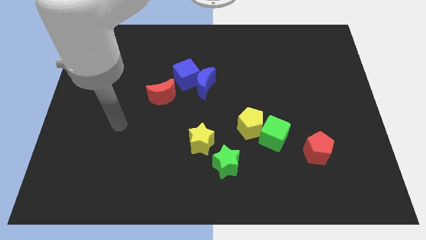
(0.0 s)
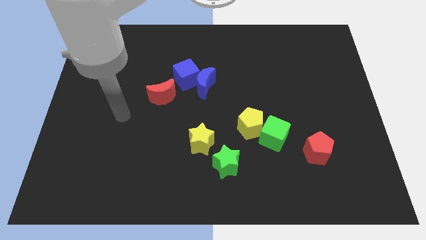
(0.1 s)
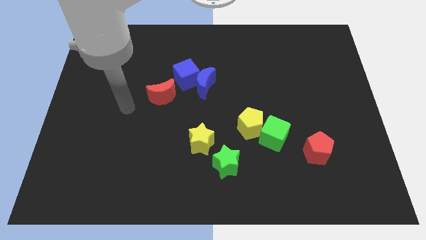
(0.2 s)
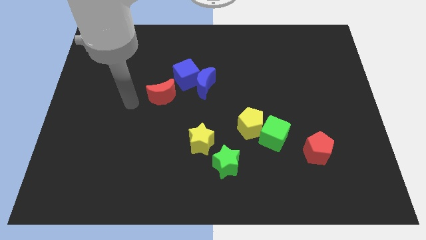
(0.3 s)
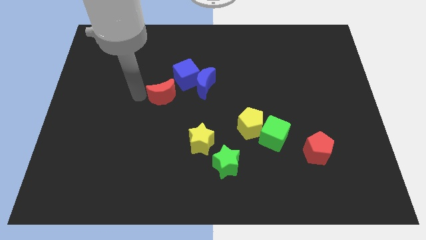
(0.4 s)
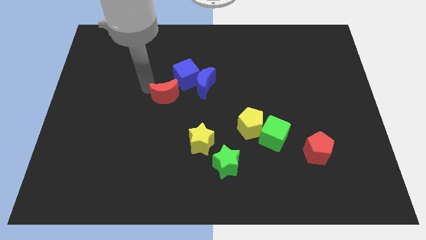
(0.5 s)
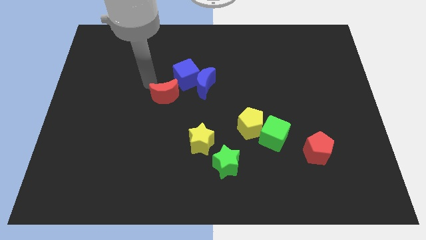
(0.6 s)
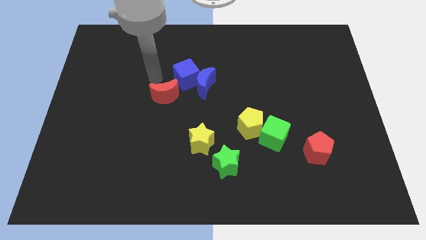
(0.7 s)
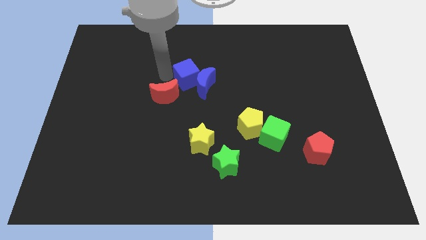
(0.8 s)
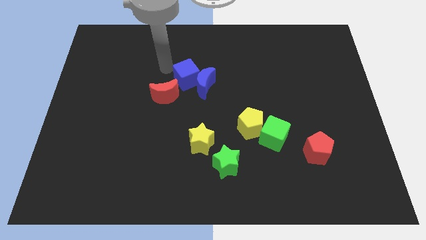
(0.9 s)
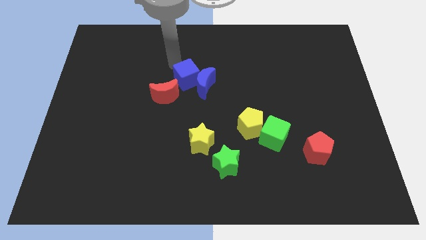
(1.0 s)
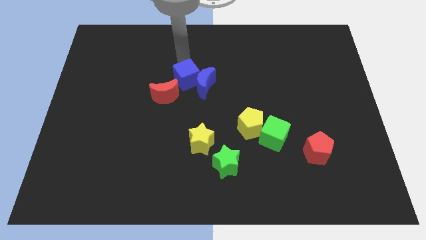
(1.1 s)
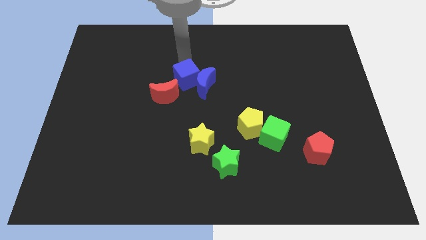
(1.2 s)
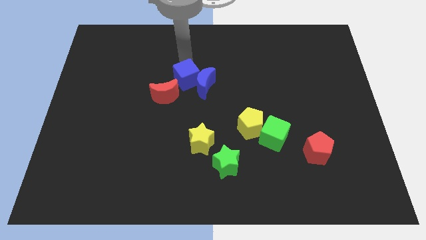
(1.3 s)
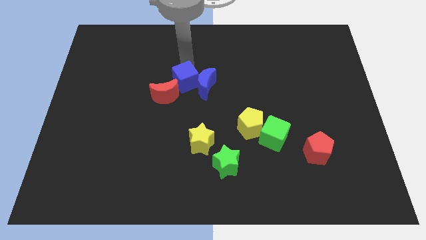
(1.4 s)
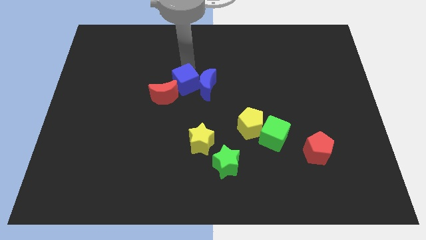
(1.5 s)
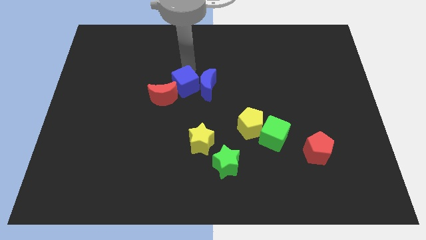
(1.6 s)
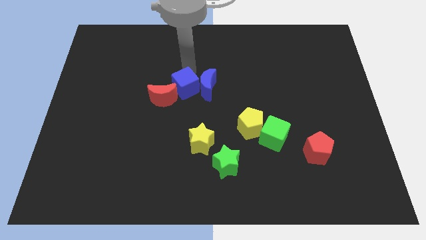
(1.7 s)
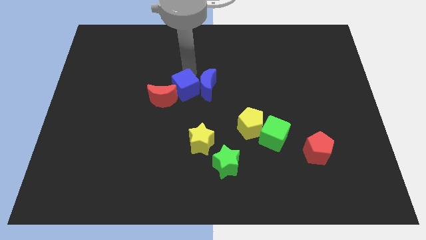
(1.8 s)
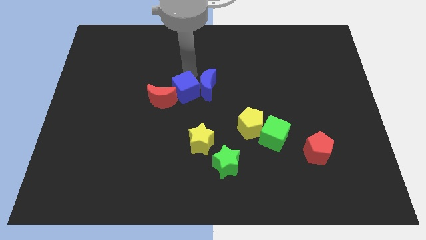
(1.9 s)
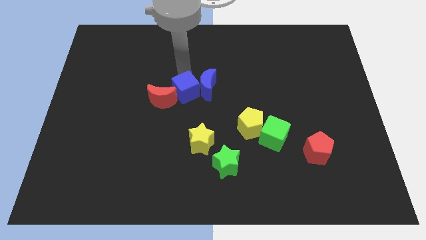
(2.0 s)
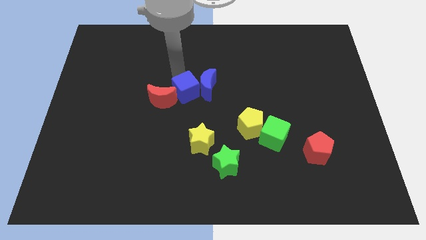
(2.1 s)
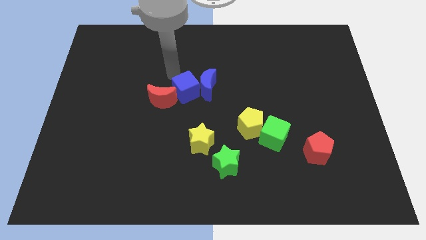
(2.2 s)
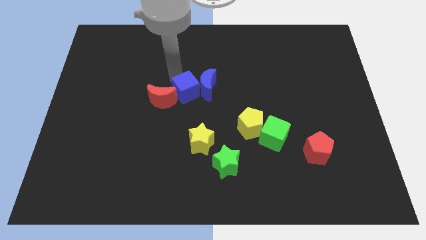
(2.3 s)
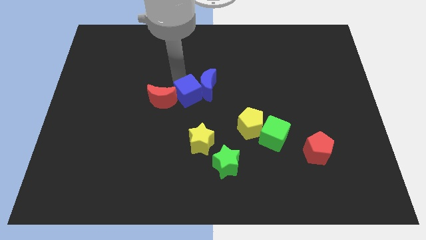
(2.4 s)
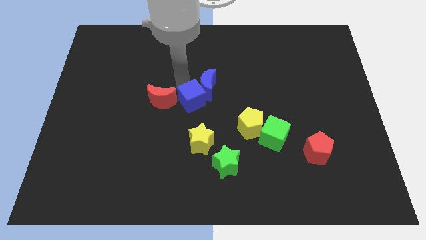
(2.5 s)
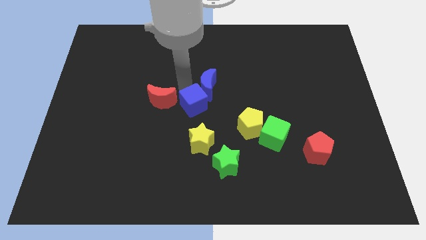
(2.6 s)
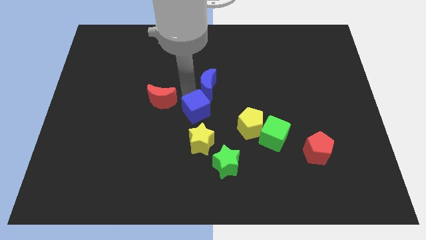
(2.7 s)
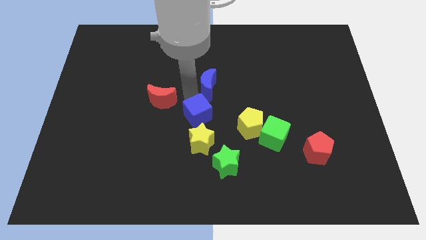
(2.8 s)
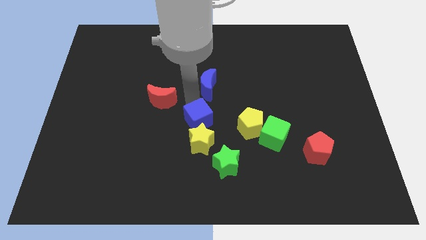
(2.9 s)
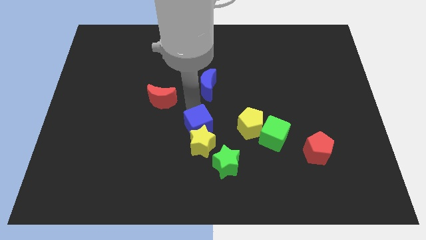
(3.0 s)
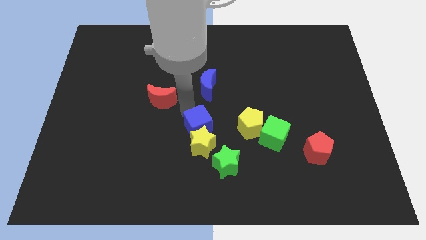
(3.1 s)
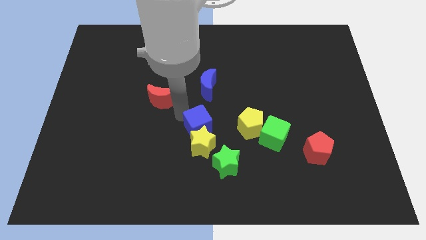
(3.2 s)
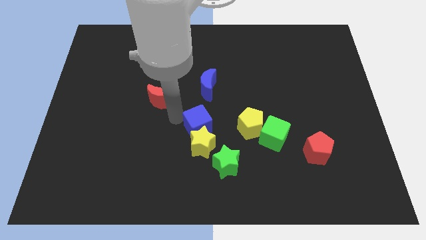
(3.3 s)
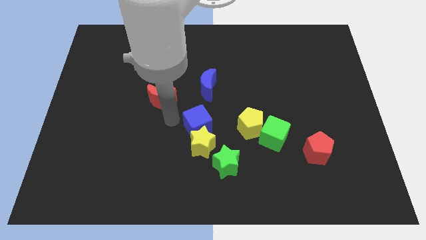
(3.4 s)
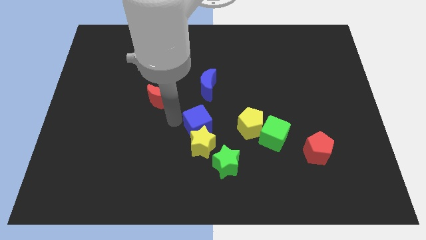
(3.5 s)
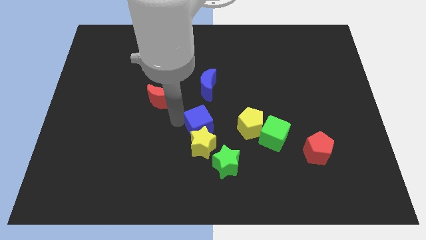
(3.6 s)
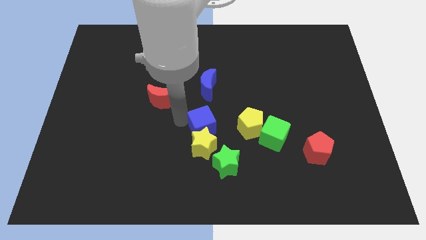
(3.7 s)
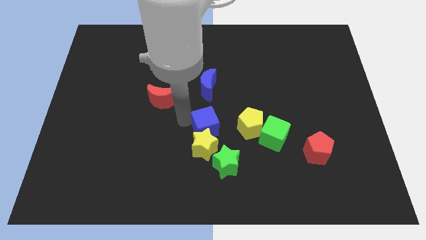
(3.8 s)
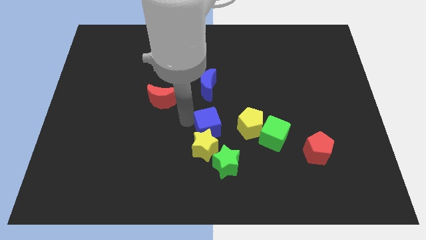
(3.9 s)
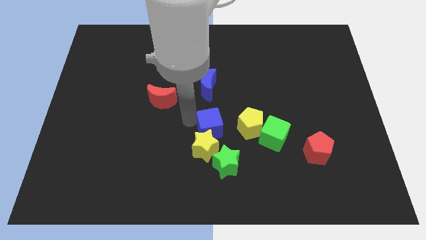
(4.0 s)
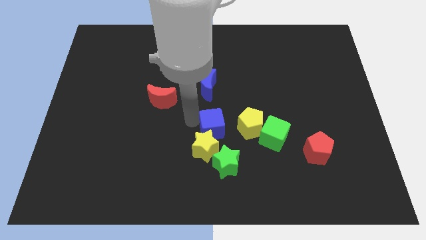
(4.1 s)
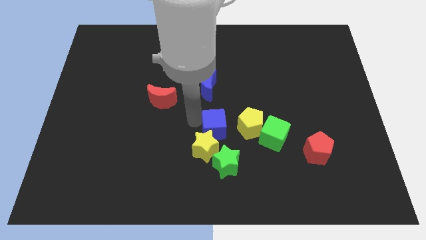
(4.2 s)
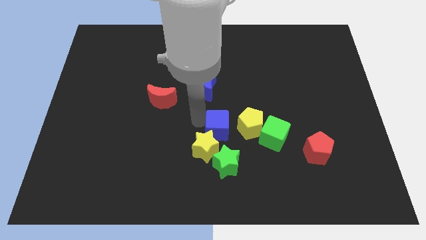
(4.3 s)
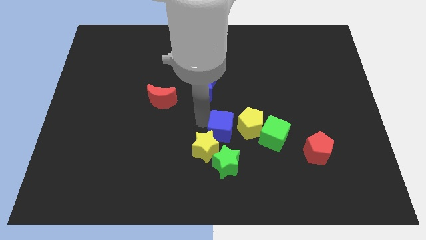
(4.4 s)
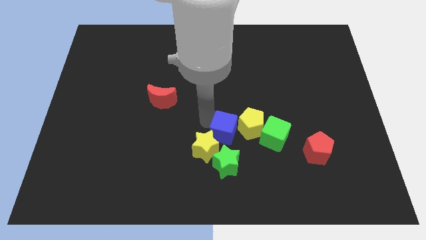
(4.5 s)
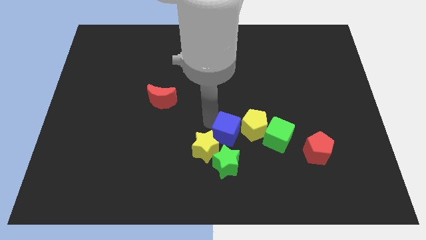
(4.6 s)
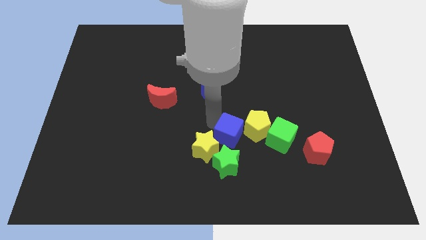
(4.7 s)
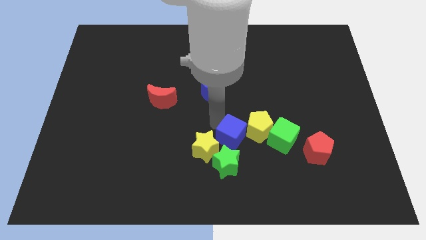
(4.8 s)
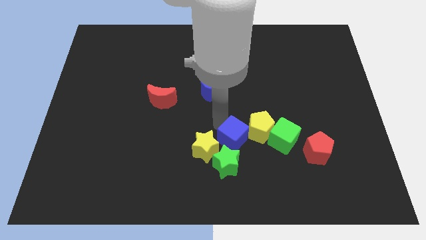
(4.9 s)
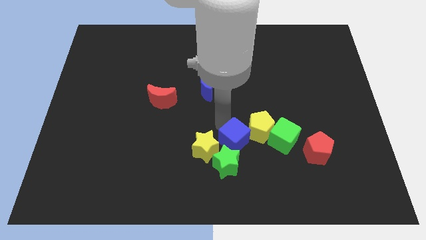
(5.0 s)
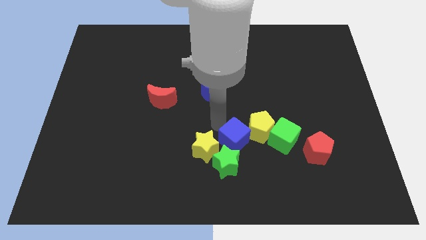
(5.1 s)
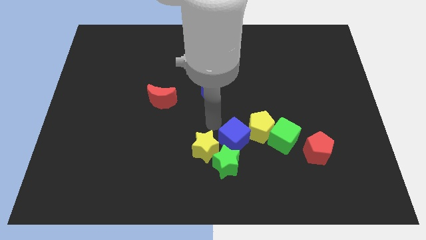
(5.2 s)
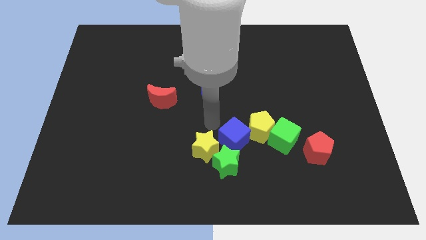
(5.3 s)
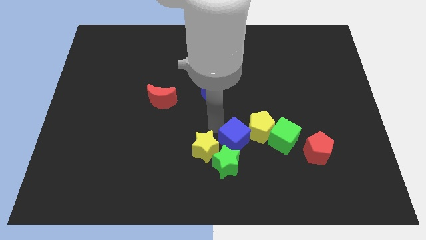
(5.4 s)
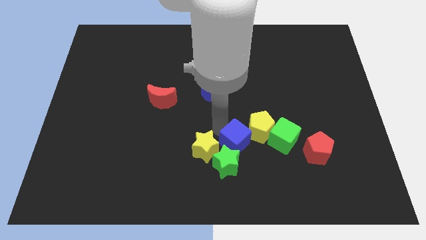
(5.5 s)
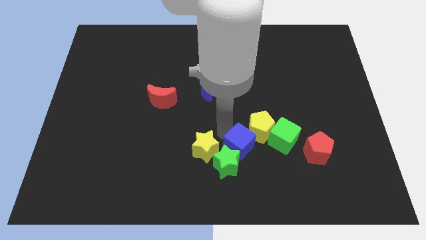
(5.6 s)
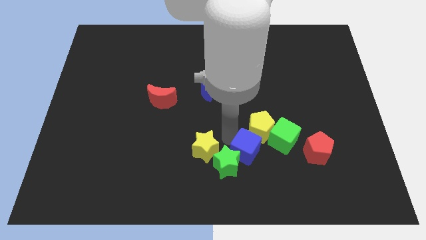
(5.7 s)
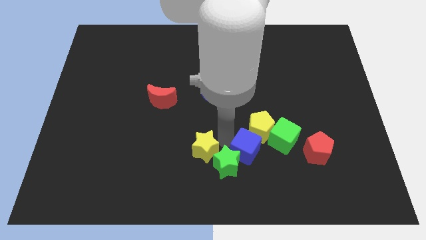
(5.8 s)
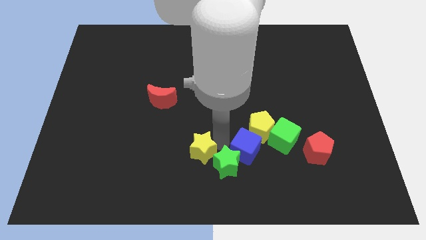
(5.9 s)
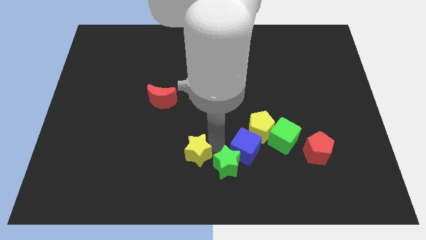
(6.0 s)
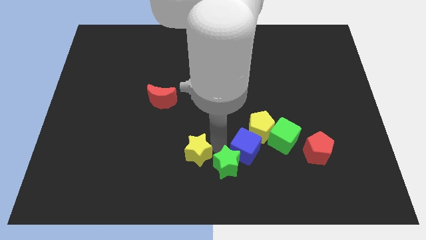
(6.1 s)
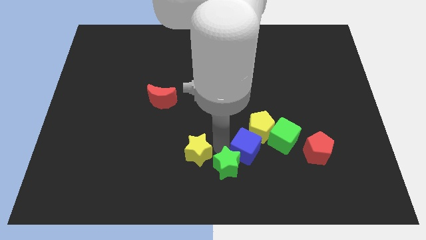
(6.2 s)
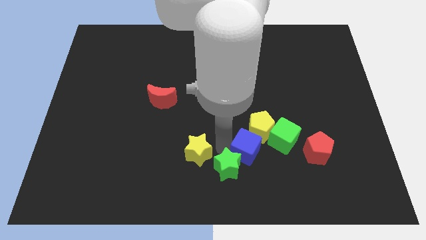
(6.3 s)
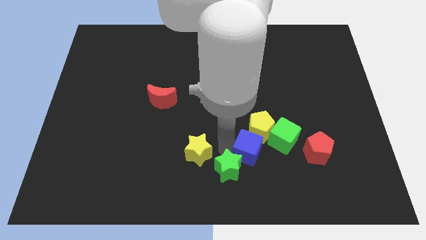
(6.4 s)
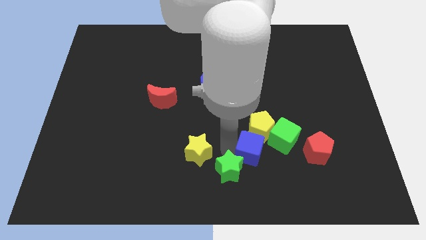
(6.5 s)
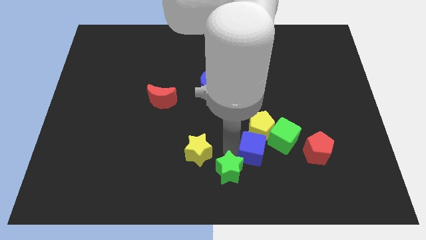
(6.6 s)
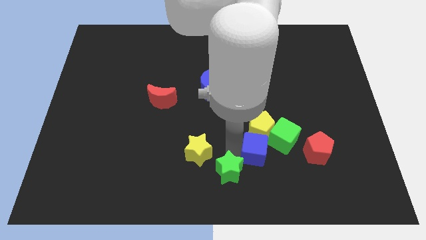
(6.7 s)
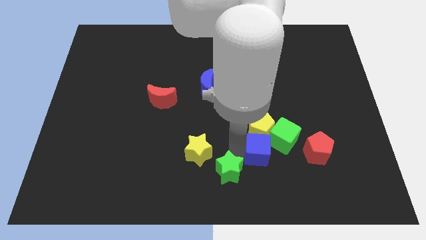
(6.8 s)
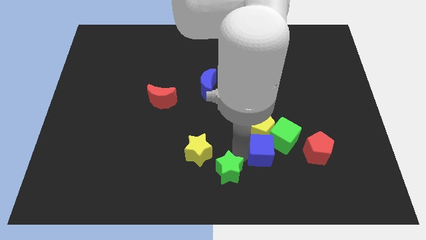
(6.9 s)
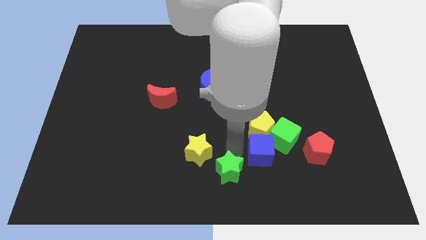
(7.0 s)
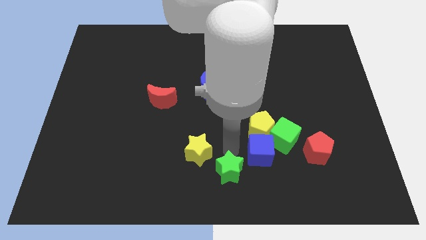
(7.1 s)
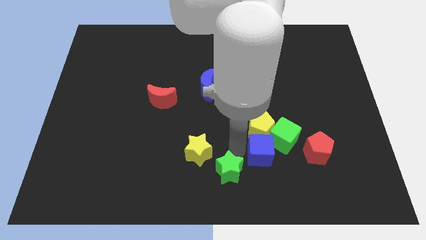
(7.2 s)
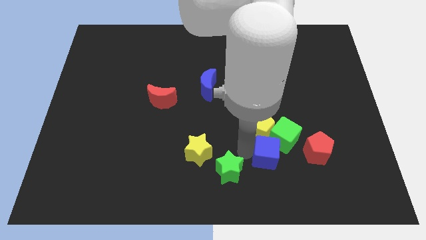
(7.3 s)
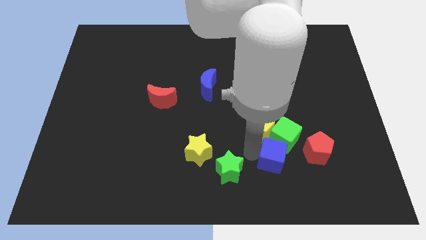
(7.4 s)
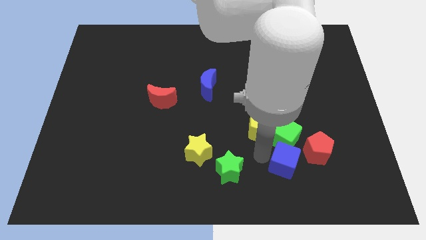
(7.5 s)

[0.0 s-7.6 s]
put the blue cube to the bottom right side of the green cube
